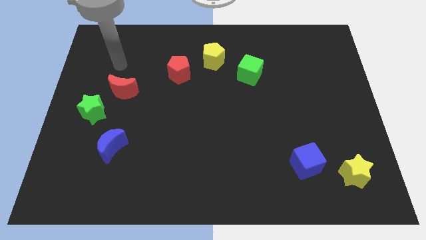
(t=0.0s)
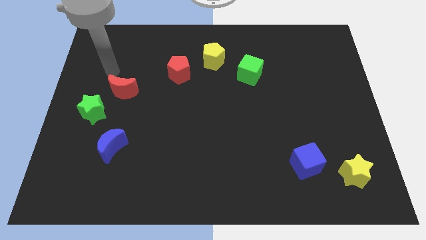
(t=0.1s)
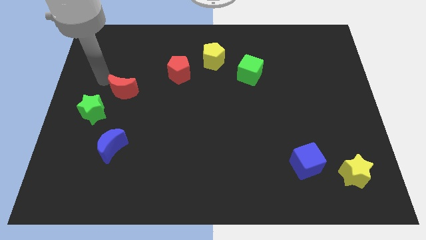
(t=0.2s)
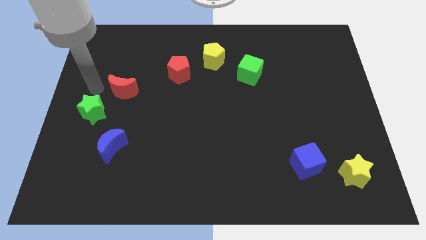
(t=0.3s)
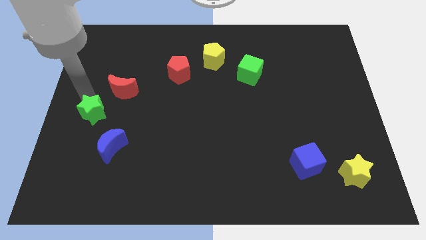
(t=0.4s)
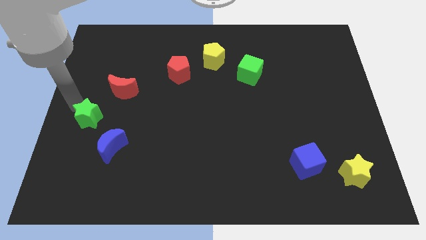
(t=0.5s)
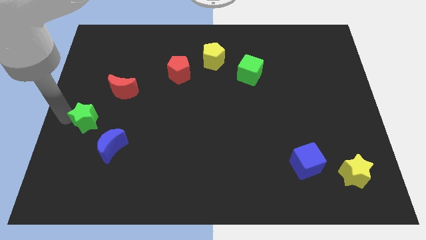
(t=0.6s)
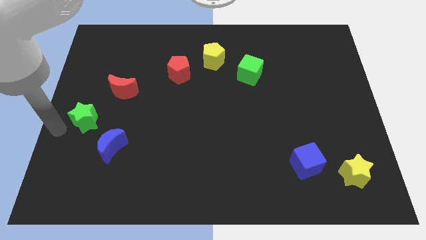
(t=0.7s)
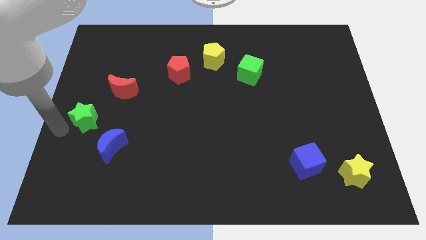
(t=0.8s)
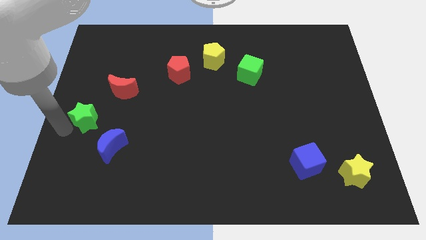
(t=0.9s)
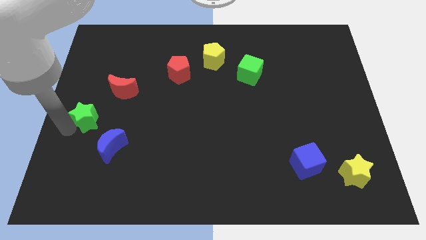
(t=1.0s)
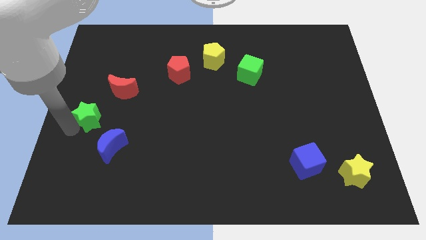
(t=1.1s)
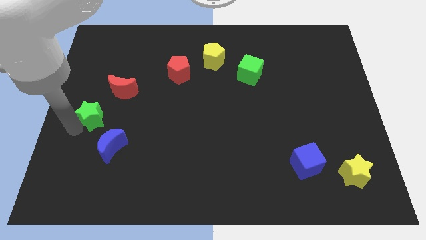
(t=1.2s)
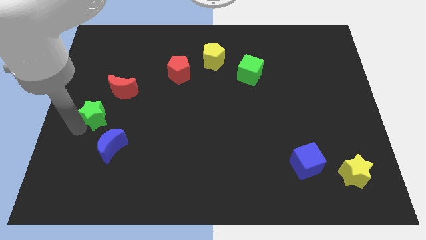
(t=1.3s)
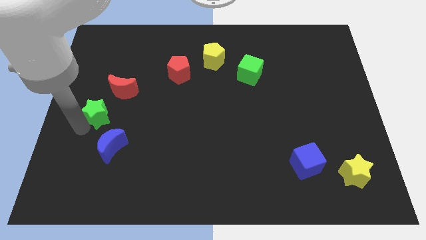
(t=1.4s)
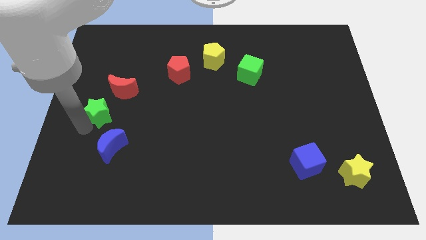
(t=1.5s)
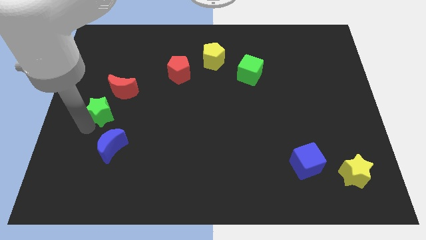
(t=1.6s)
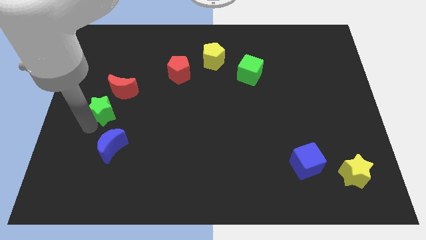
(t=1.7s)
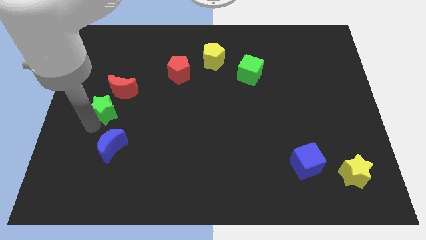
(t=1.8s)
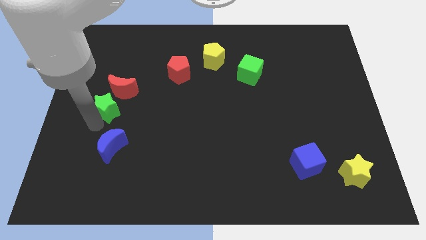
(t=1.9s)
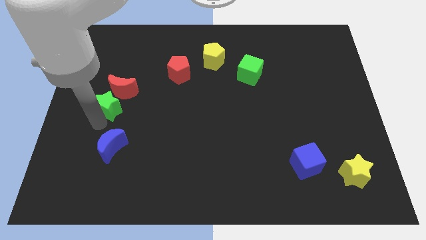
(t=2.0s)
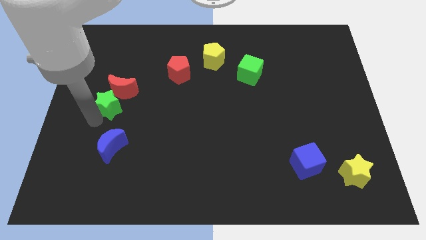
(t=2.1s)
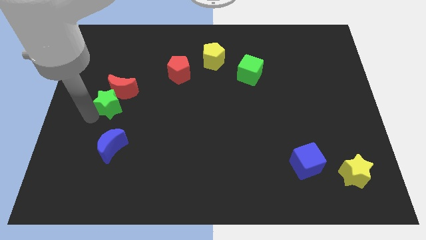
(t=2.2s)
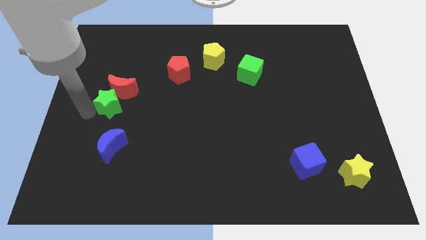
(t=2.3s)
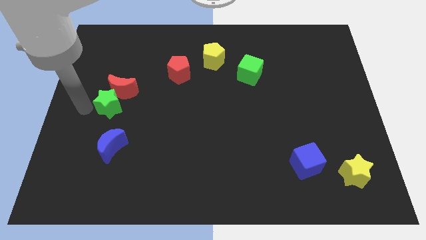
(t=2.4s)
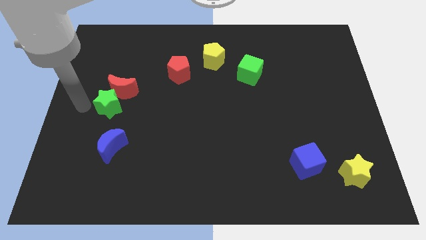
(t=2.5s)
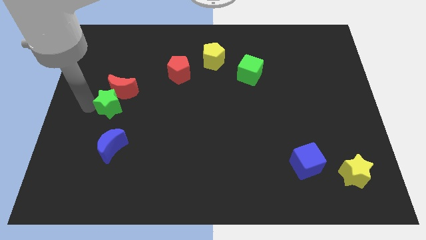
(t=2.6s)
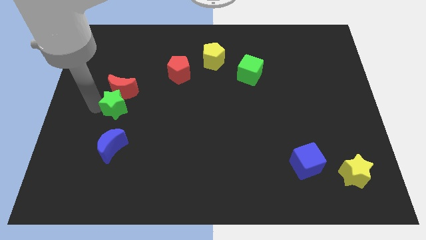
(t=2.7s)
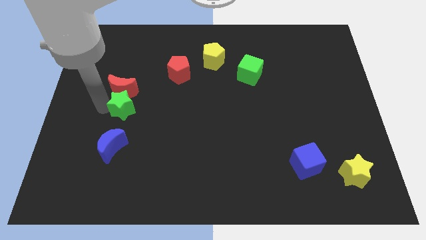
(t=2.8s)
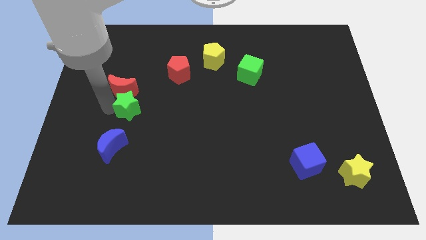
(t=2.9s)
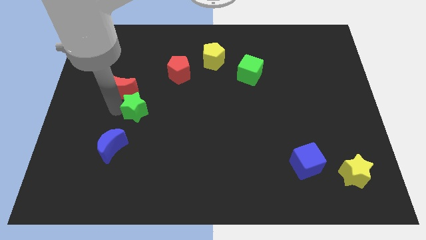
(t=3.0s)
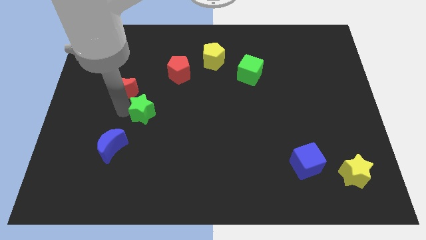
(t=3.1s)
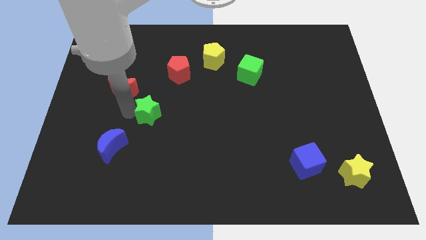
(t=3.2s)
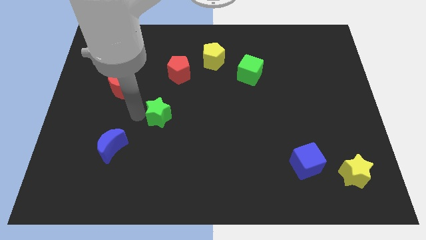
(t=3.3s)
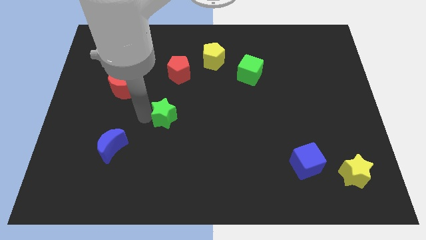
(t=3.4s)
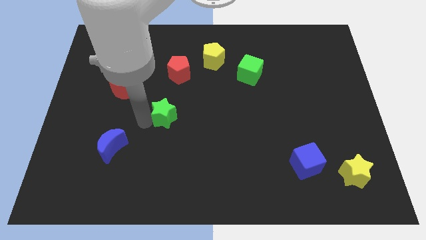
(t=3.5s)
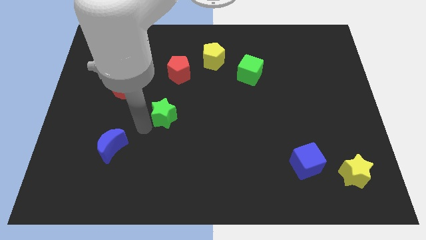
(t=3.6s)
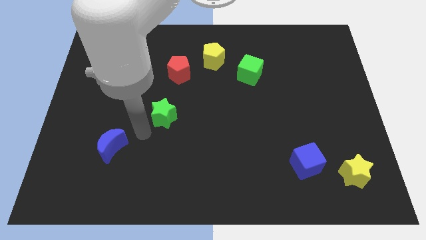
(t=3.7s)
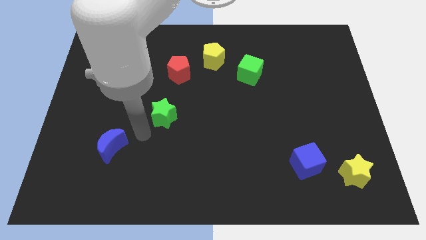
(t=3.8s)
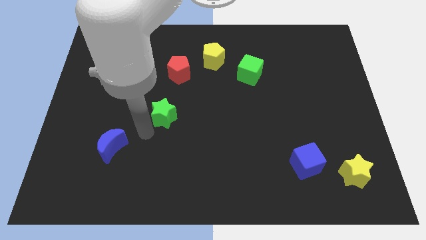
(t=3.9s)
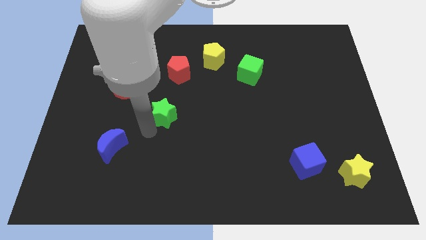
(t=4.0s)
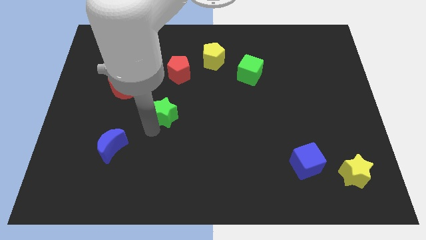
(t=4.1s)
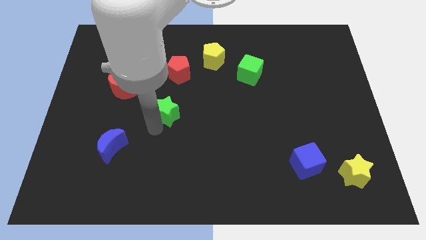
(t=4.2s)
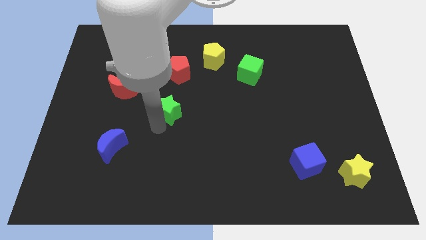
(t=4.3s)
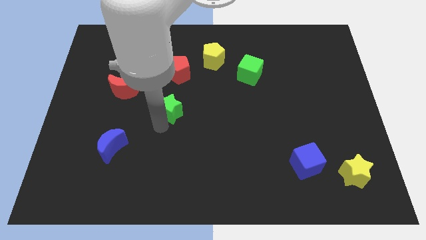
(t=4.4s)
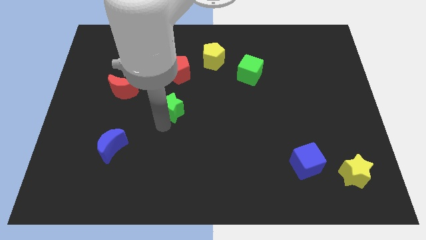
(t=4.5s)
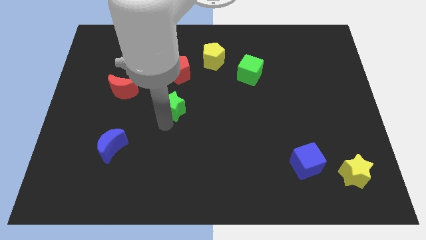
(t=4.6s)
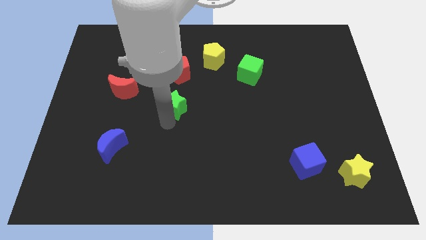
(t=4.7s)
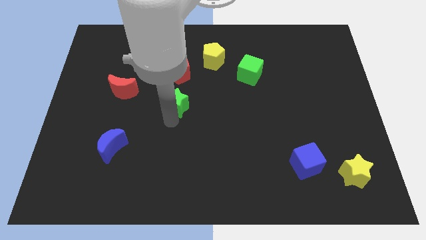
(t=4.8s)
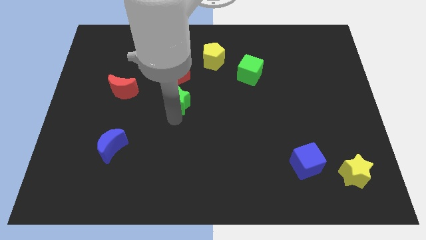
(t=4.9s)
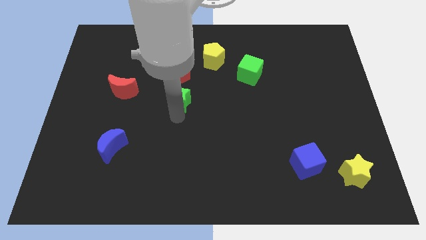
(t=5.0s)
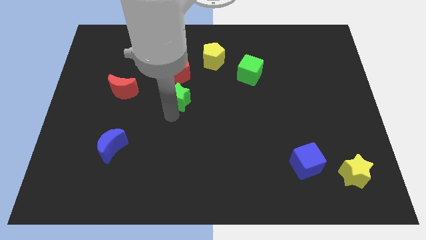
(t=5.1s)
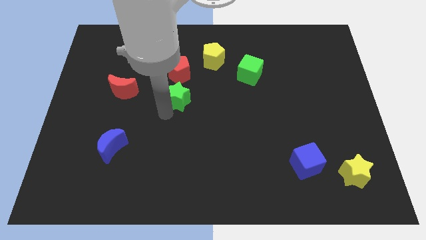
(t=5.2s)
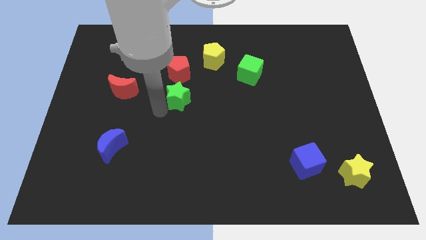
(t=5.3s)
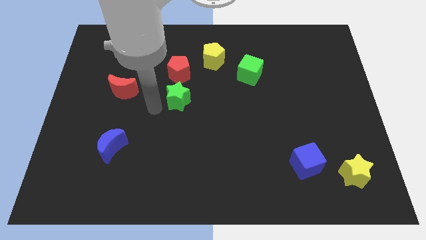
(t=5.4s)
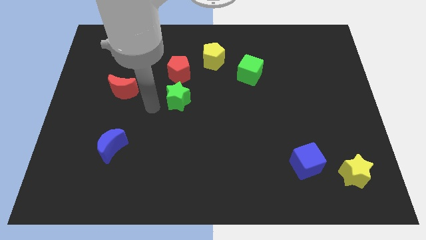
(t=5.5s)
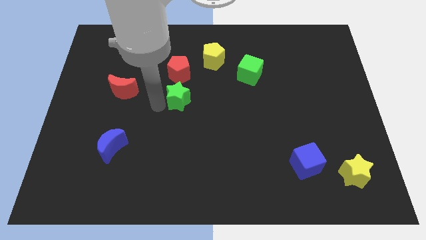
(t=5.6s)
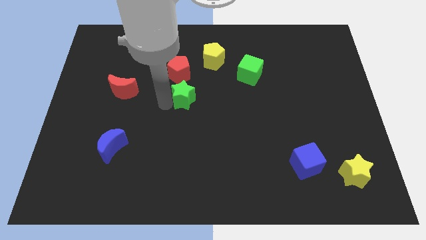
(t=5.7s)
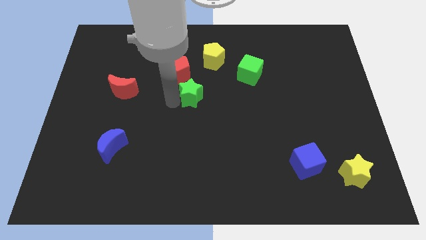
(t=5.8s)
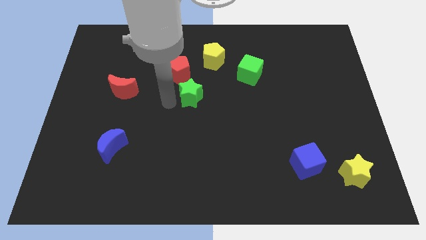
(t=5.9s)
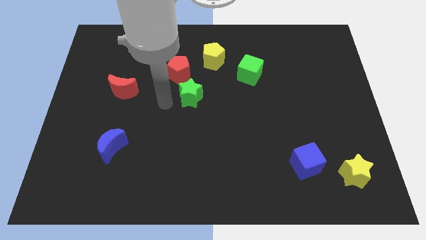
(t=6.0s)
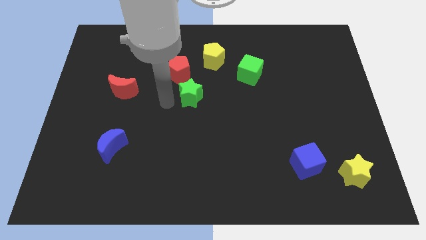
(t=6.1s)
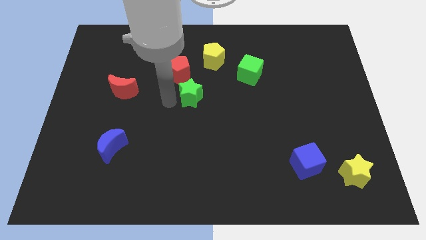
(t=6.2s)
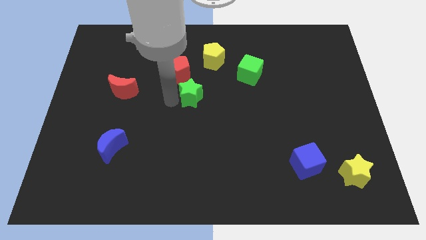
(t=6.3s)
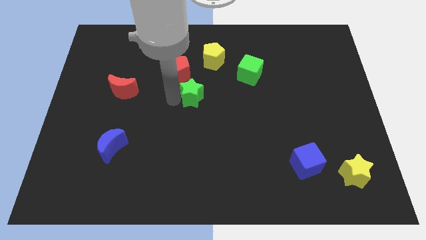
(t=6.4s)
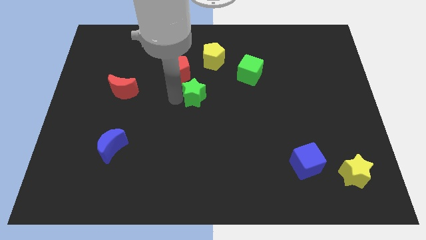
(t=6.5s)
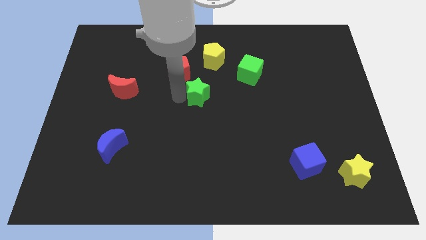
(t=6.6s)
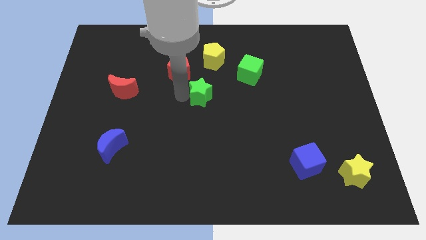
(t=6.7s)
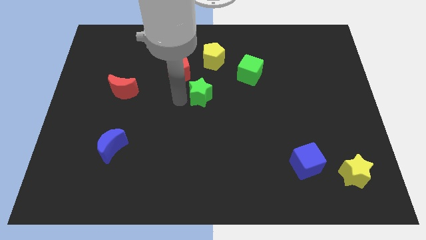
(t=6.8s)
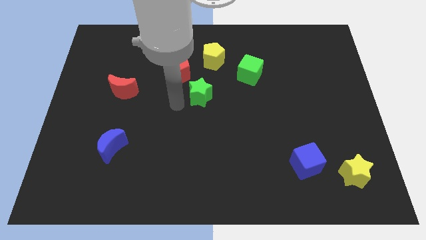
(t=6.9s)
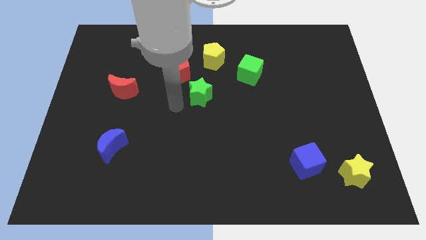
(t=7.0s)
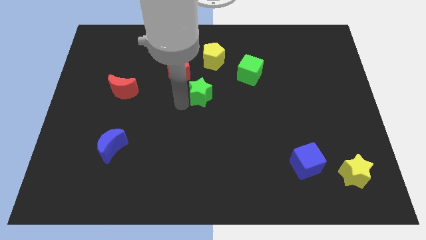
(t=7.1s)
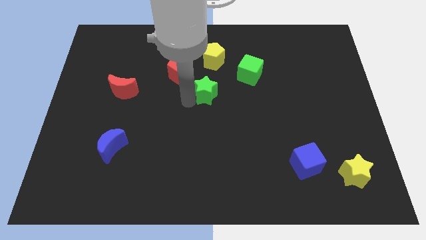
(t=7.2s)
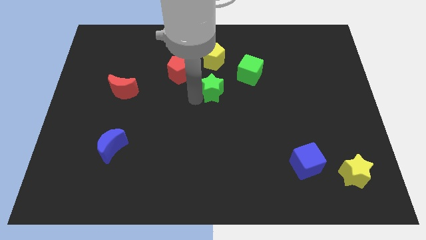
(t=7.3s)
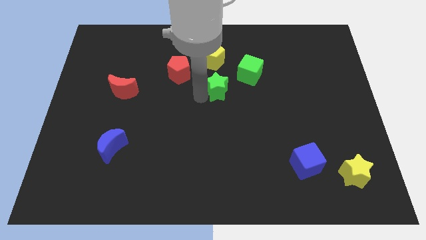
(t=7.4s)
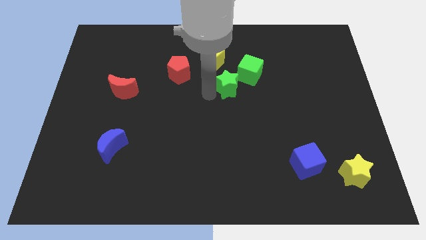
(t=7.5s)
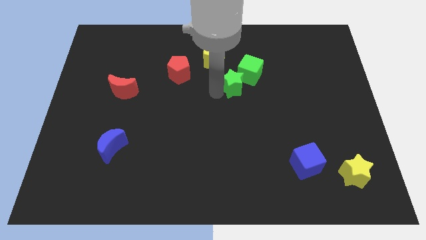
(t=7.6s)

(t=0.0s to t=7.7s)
put the green star close to the green cube
